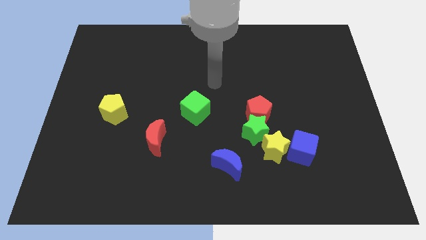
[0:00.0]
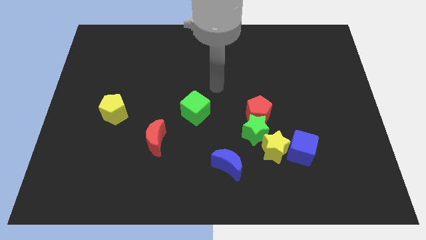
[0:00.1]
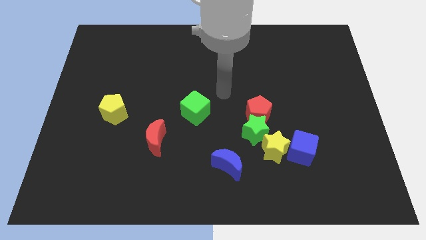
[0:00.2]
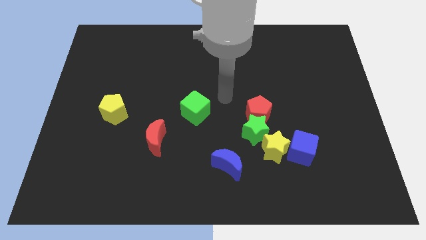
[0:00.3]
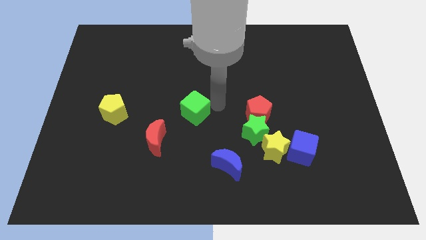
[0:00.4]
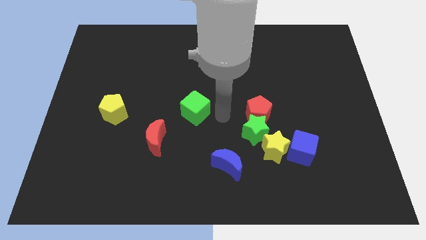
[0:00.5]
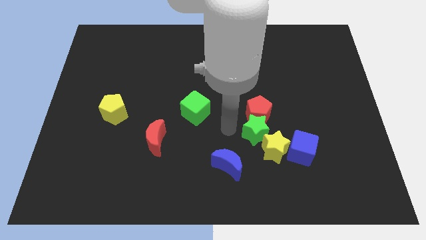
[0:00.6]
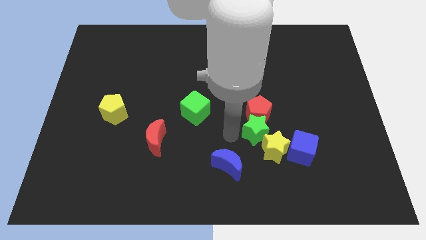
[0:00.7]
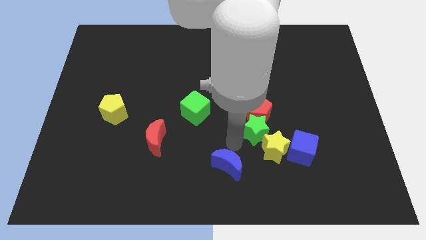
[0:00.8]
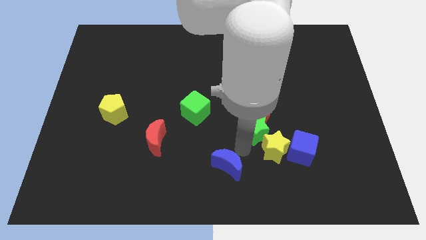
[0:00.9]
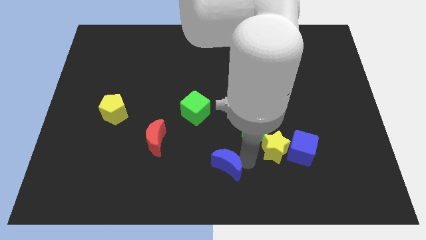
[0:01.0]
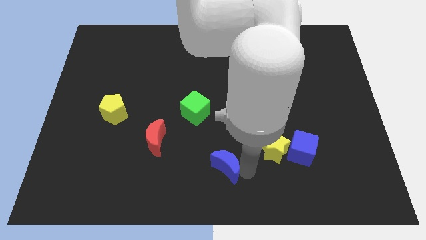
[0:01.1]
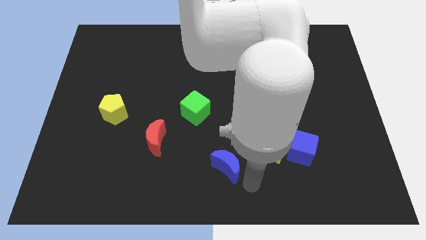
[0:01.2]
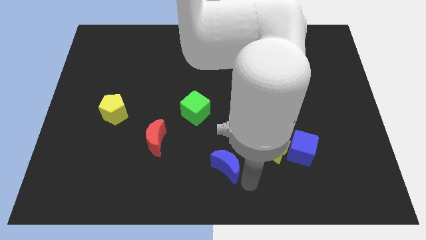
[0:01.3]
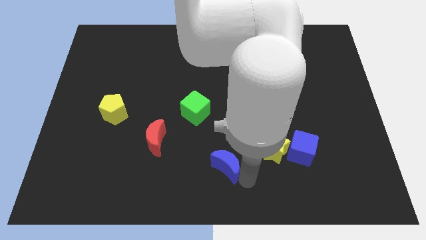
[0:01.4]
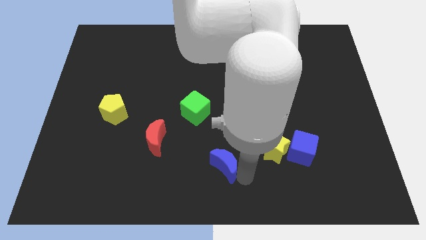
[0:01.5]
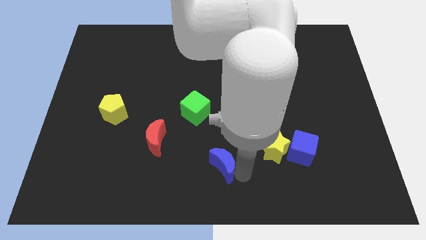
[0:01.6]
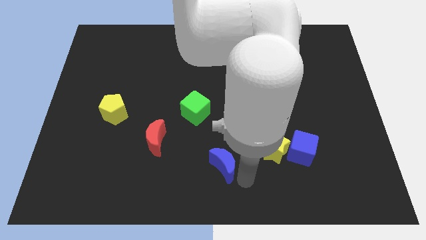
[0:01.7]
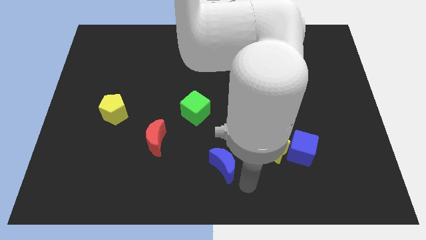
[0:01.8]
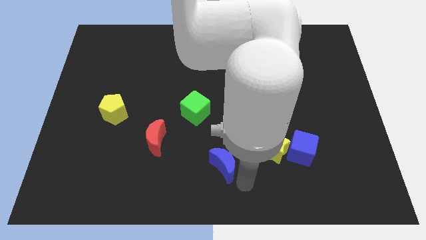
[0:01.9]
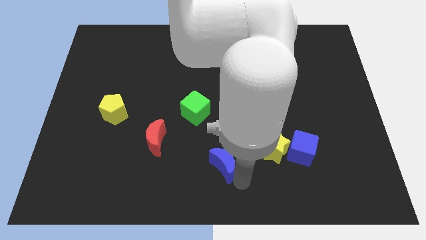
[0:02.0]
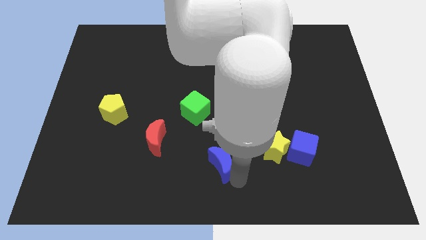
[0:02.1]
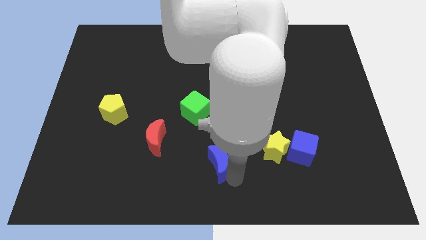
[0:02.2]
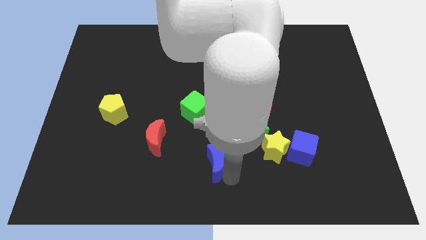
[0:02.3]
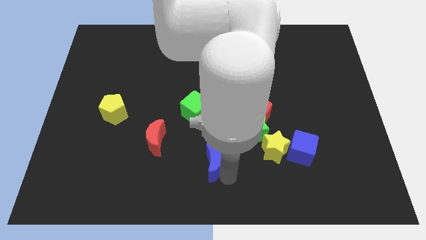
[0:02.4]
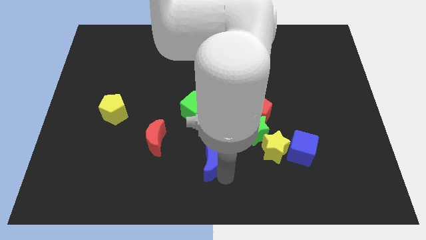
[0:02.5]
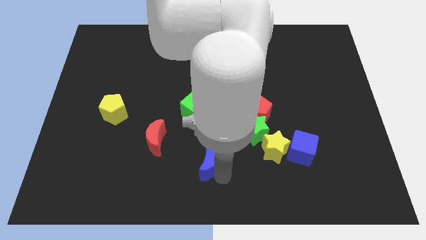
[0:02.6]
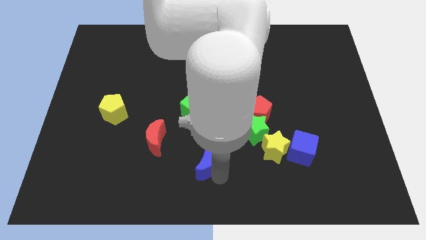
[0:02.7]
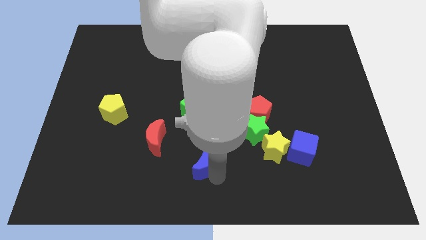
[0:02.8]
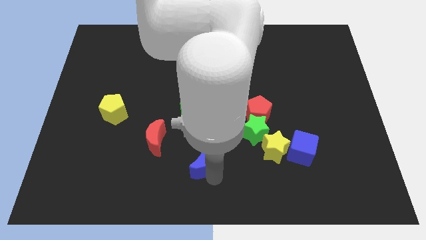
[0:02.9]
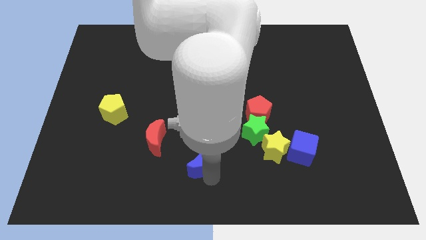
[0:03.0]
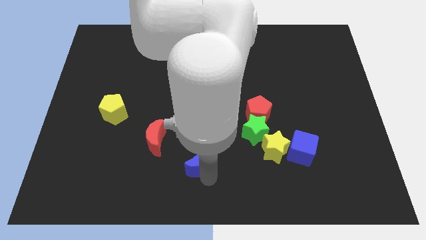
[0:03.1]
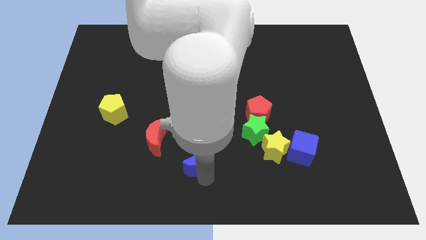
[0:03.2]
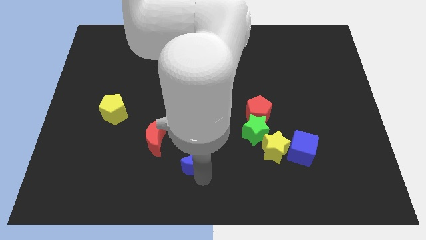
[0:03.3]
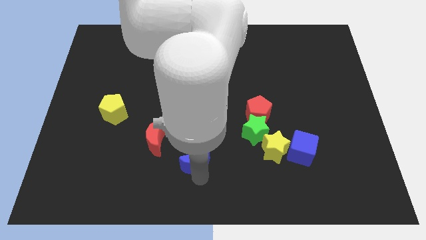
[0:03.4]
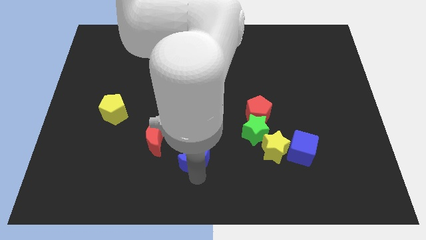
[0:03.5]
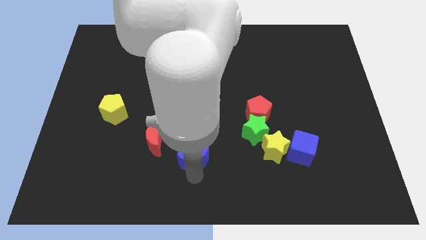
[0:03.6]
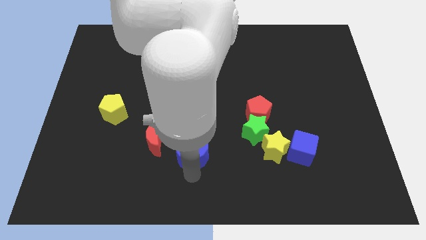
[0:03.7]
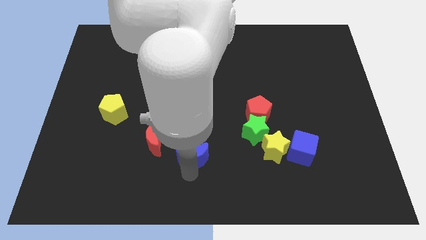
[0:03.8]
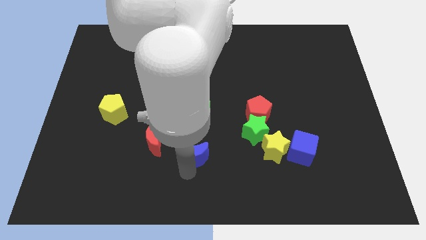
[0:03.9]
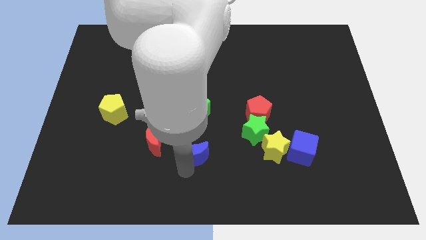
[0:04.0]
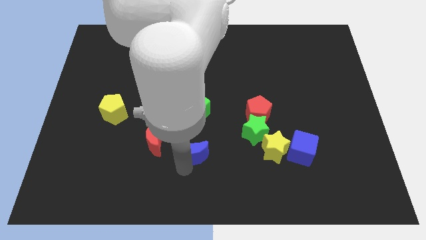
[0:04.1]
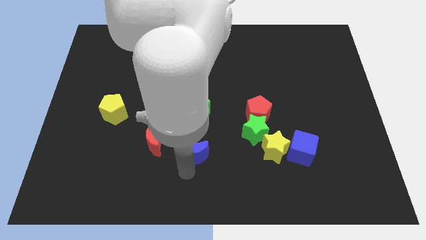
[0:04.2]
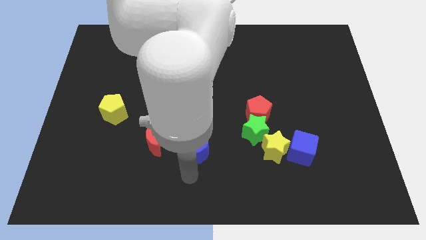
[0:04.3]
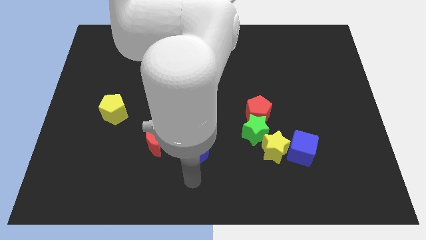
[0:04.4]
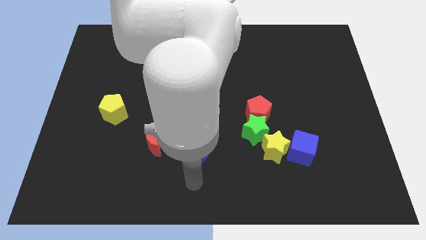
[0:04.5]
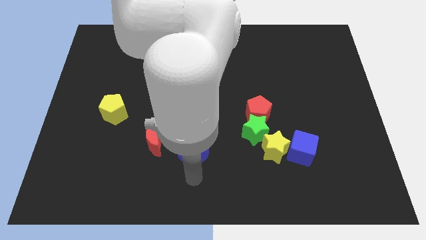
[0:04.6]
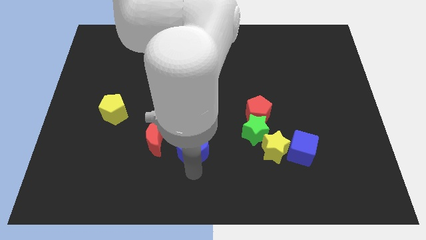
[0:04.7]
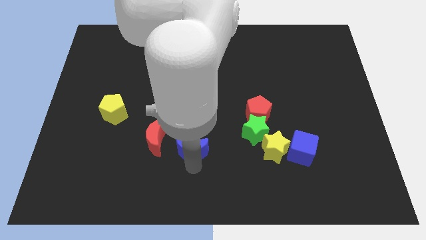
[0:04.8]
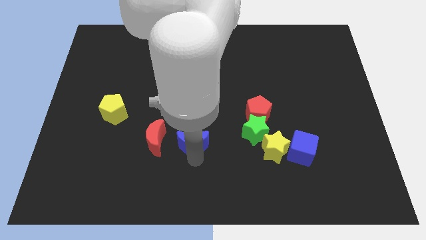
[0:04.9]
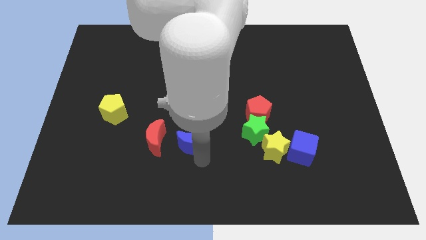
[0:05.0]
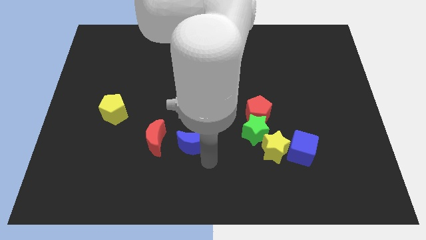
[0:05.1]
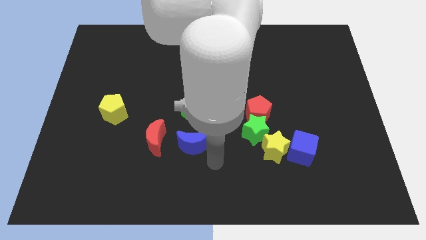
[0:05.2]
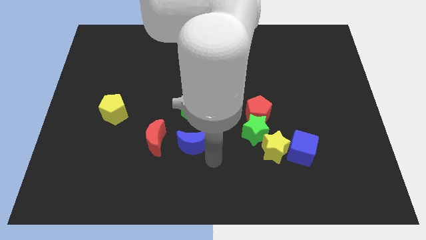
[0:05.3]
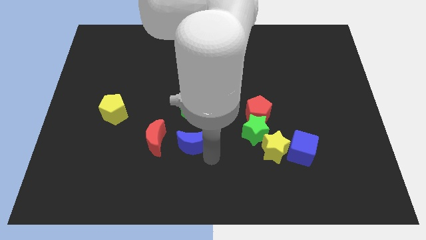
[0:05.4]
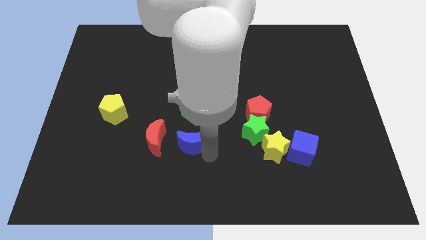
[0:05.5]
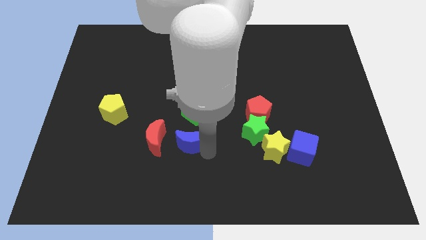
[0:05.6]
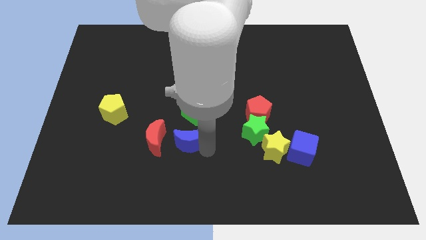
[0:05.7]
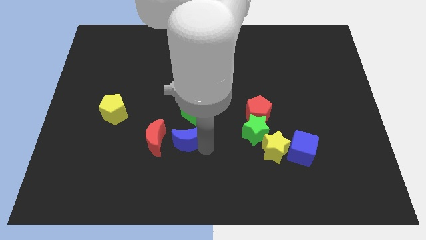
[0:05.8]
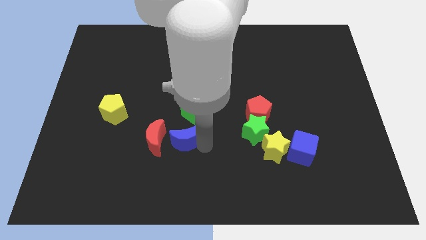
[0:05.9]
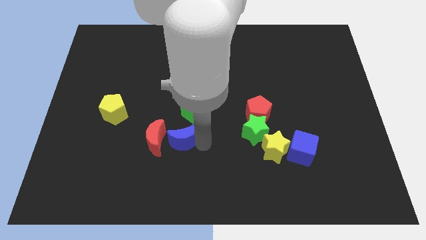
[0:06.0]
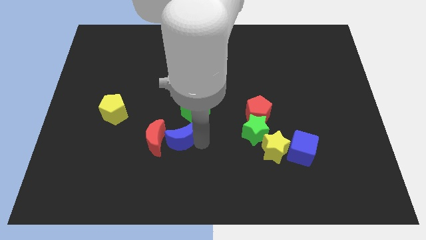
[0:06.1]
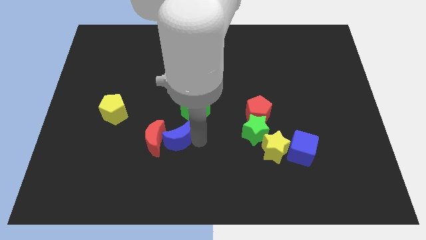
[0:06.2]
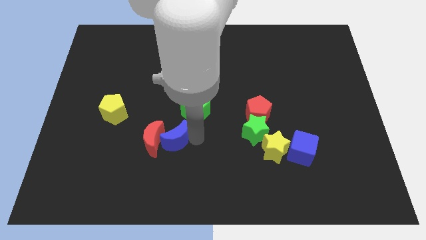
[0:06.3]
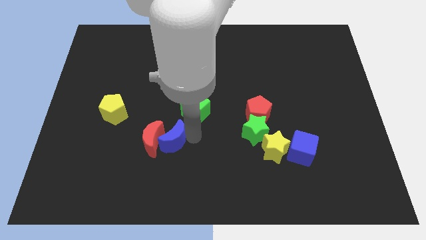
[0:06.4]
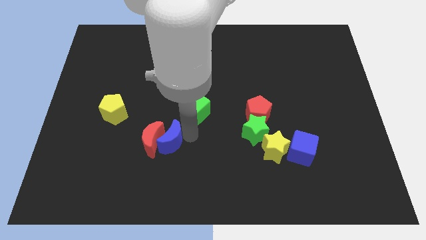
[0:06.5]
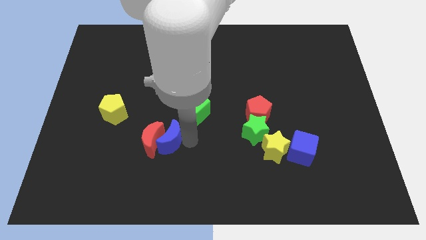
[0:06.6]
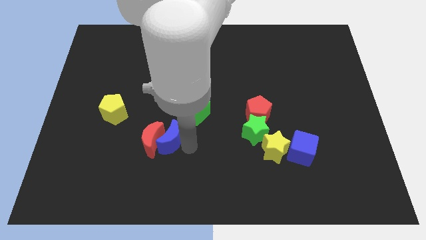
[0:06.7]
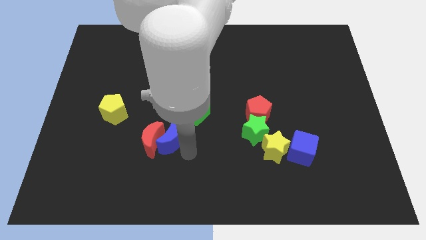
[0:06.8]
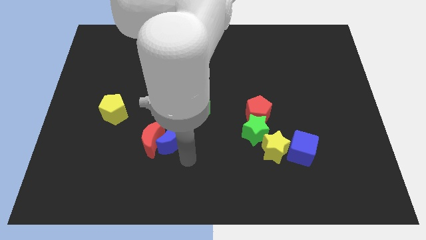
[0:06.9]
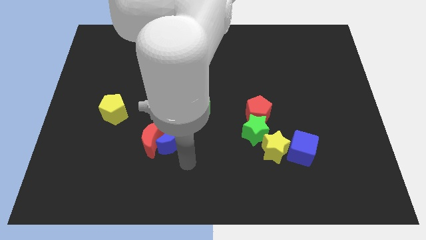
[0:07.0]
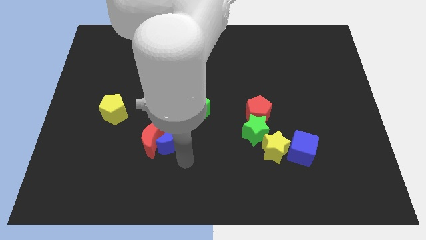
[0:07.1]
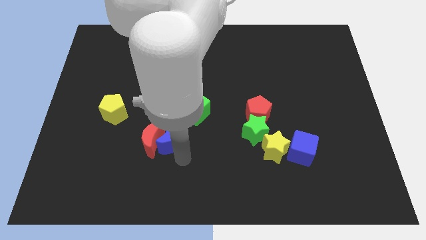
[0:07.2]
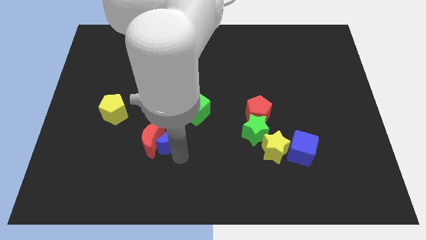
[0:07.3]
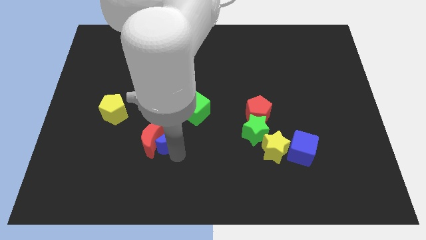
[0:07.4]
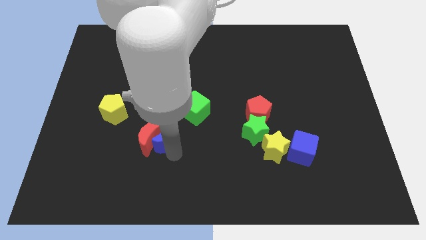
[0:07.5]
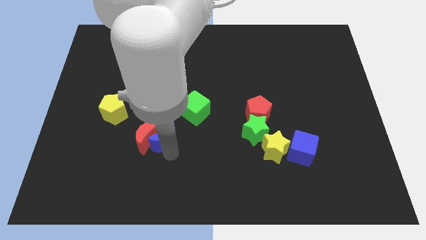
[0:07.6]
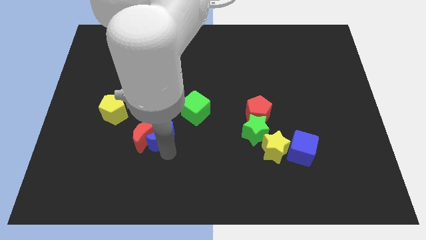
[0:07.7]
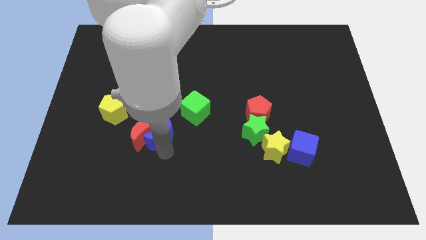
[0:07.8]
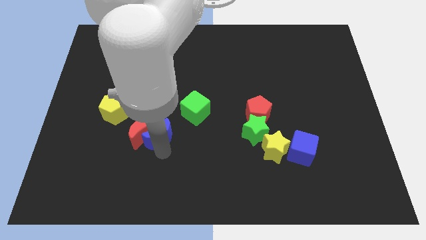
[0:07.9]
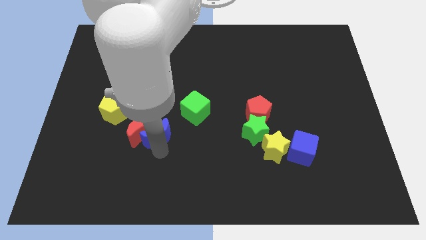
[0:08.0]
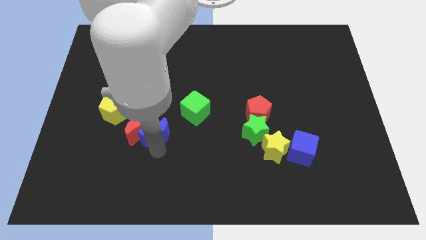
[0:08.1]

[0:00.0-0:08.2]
slide the blue moon to the bottom right of the yellow pentagon

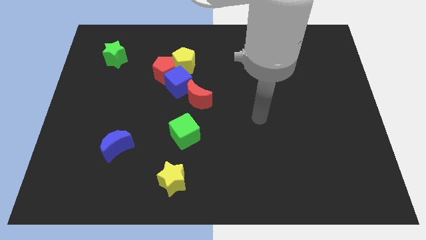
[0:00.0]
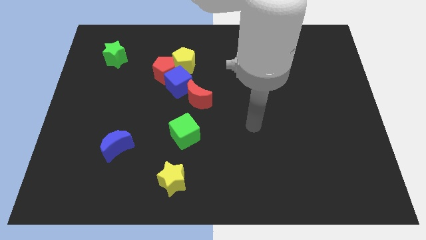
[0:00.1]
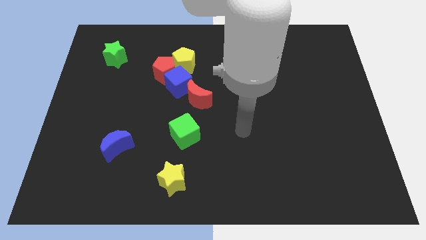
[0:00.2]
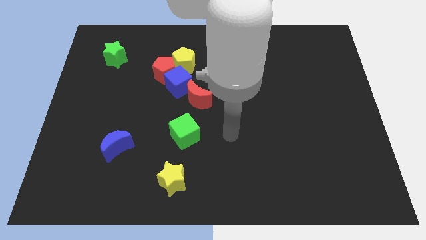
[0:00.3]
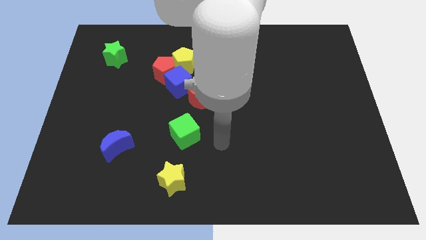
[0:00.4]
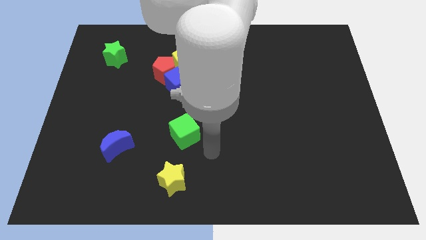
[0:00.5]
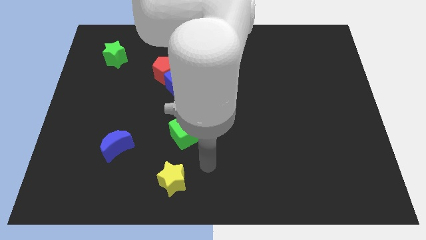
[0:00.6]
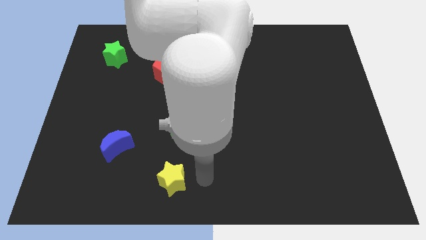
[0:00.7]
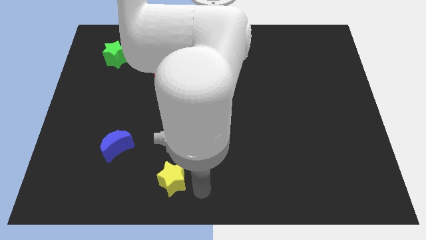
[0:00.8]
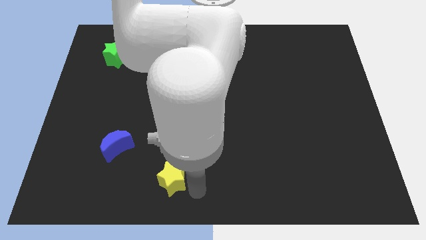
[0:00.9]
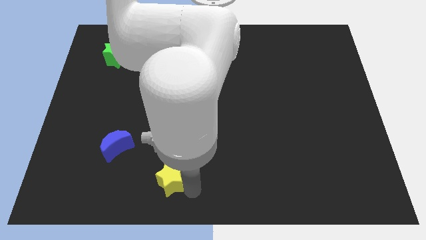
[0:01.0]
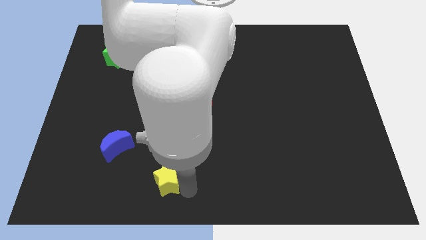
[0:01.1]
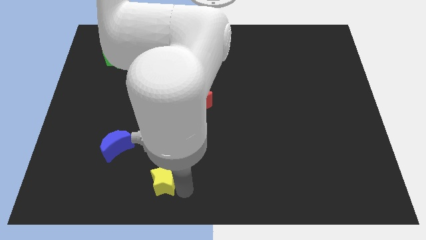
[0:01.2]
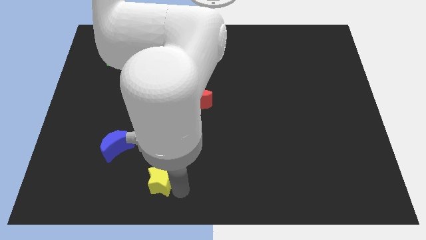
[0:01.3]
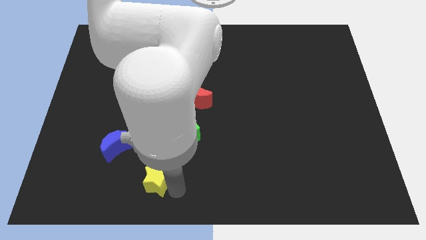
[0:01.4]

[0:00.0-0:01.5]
put the yellow star to the bottom right side of the blue moon
